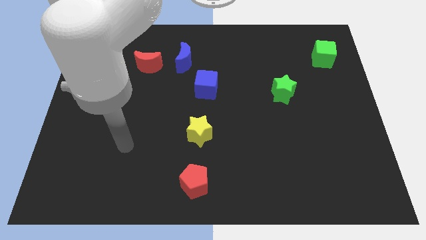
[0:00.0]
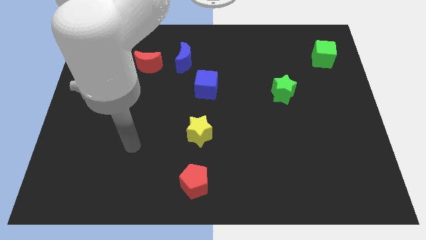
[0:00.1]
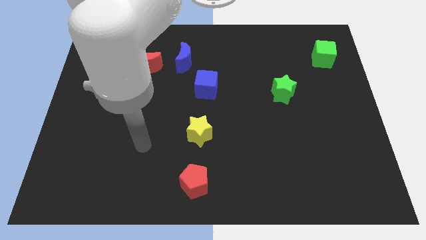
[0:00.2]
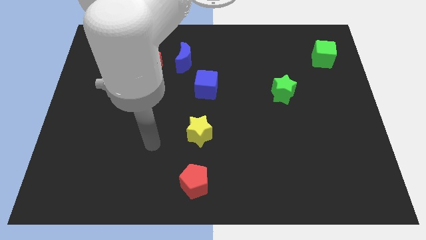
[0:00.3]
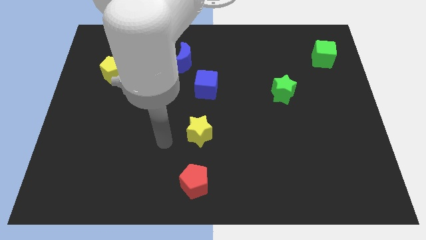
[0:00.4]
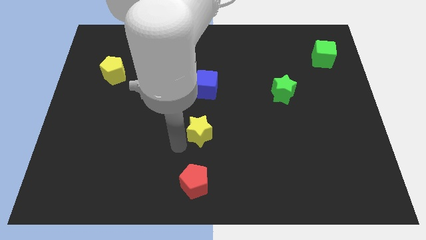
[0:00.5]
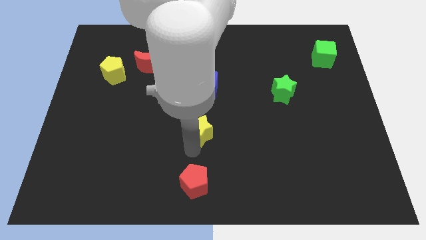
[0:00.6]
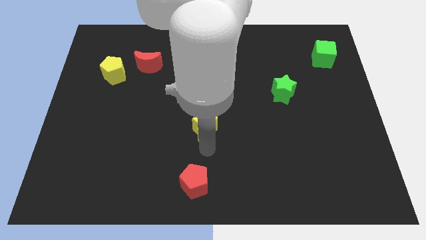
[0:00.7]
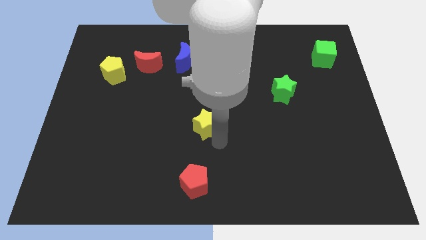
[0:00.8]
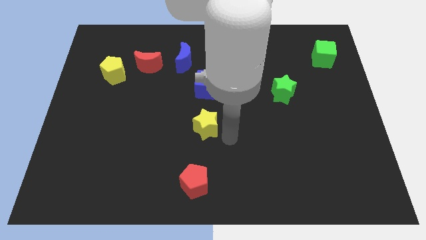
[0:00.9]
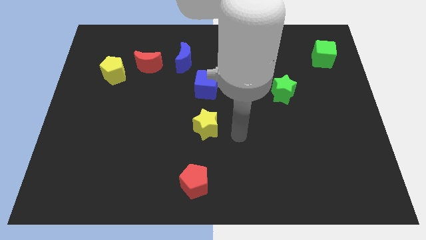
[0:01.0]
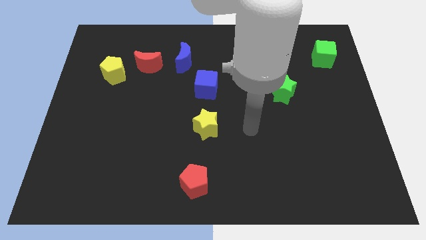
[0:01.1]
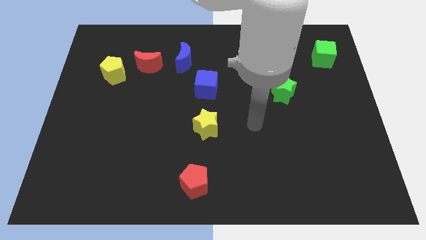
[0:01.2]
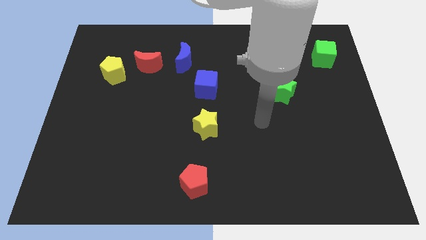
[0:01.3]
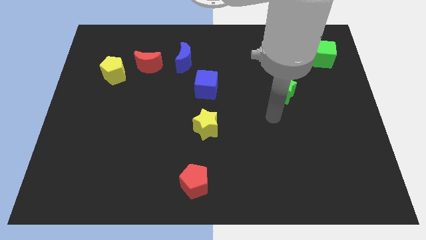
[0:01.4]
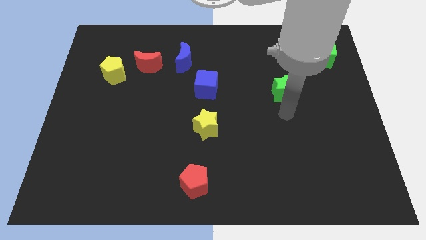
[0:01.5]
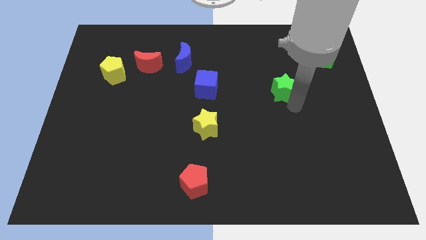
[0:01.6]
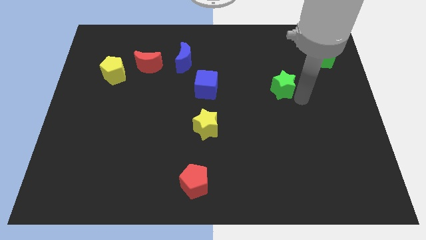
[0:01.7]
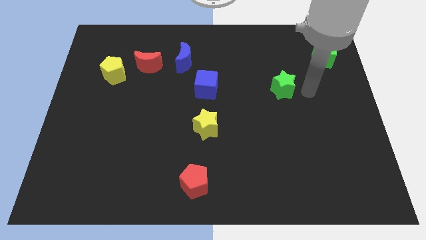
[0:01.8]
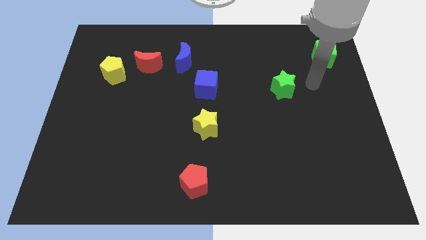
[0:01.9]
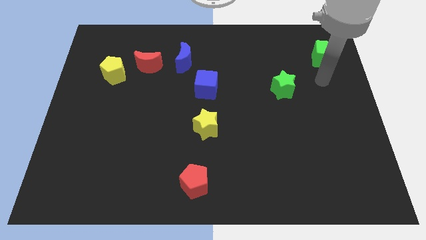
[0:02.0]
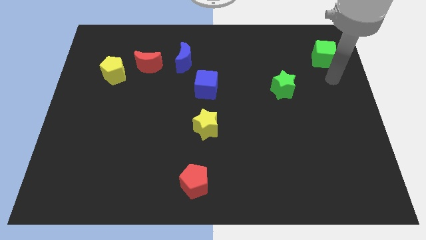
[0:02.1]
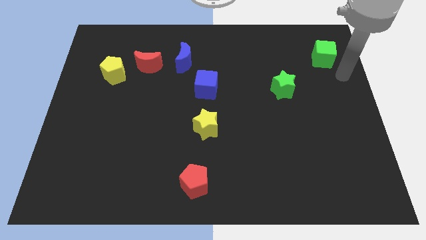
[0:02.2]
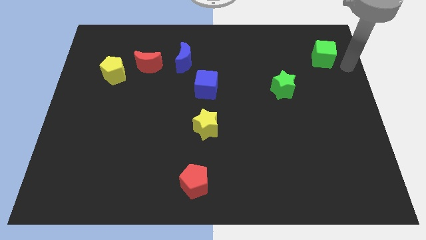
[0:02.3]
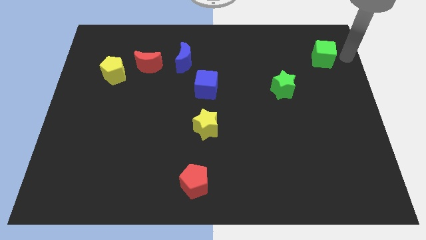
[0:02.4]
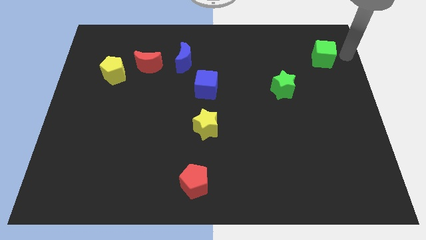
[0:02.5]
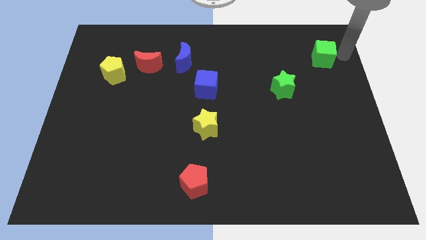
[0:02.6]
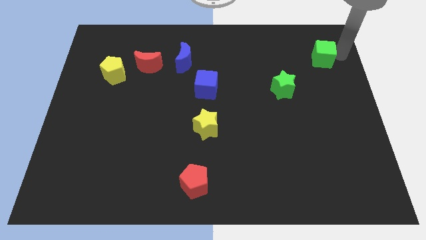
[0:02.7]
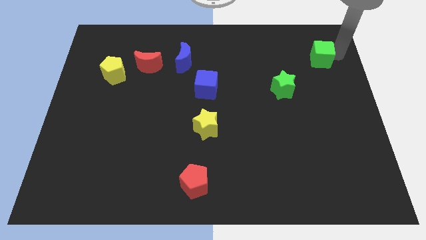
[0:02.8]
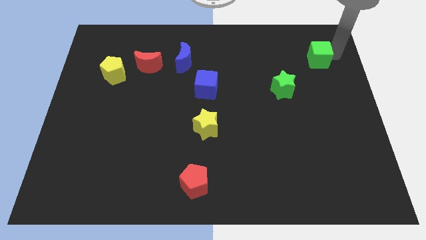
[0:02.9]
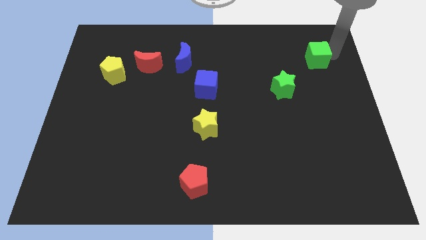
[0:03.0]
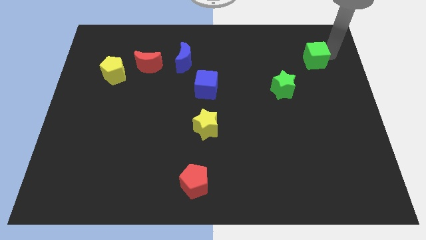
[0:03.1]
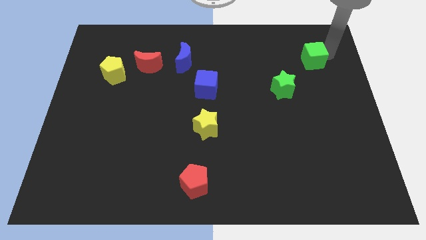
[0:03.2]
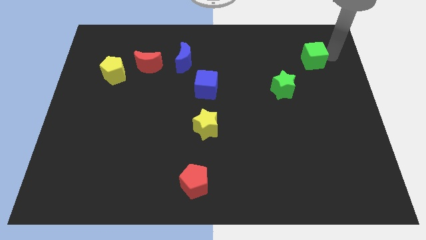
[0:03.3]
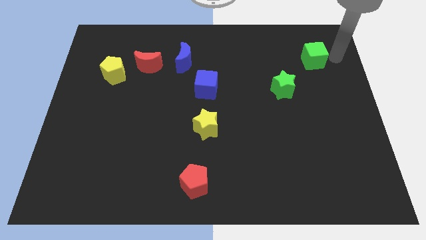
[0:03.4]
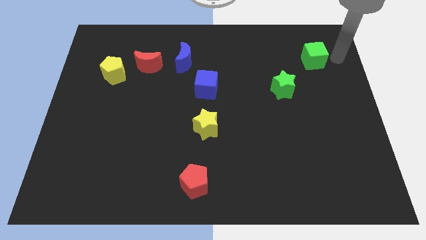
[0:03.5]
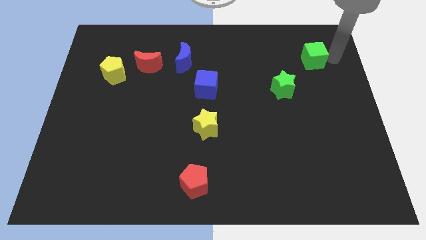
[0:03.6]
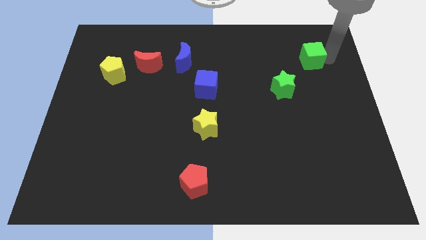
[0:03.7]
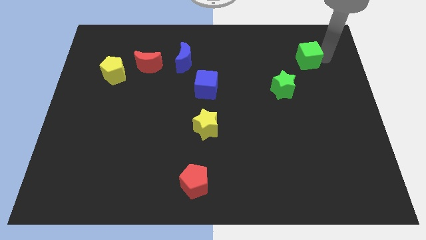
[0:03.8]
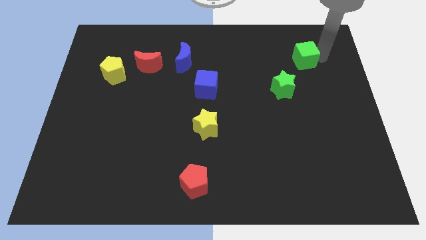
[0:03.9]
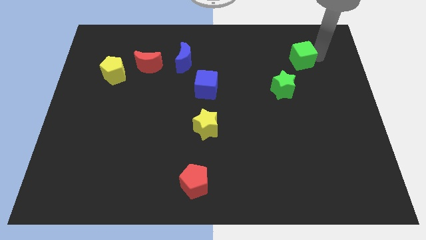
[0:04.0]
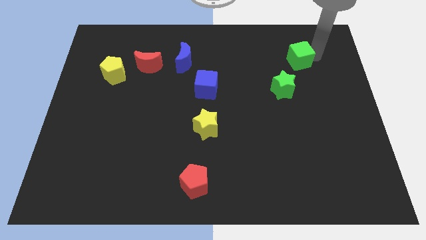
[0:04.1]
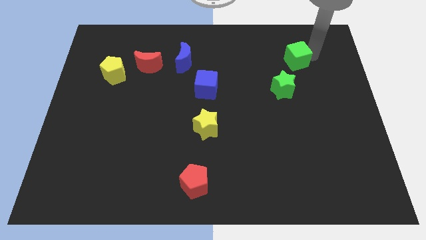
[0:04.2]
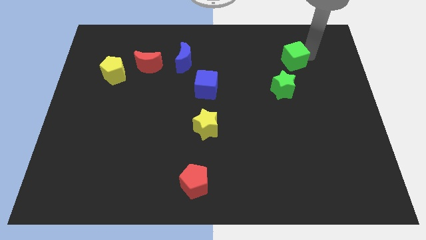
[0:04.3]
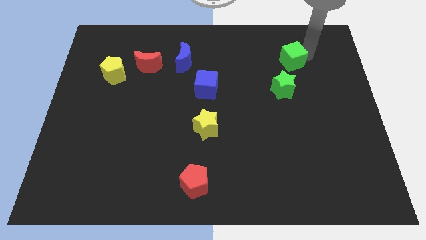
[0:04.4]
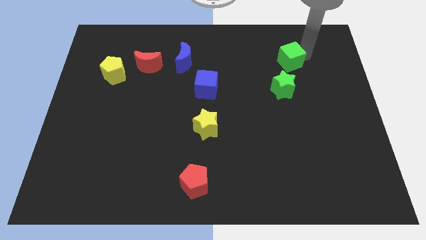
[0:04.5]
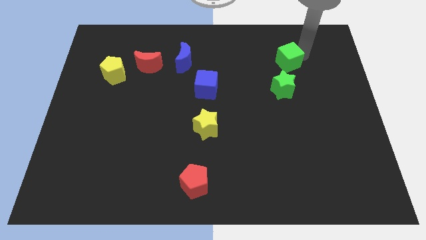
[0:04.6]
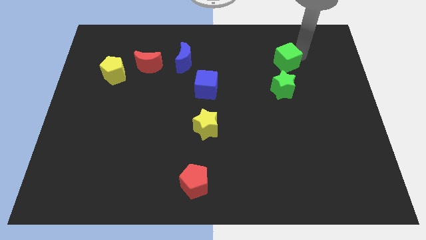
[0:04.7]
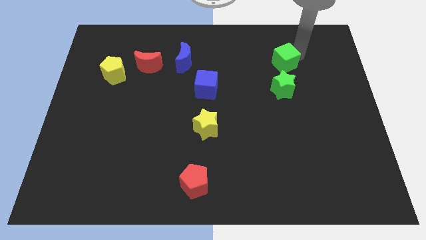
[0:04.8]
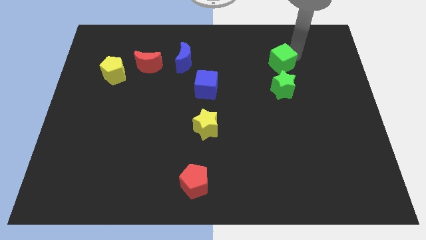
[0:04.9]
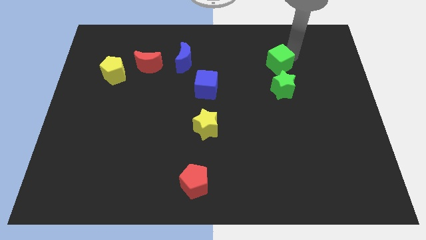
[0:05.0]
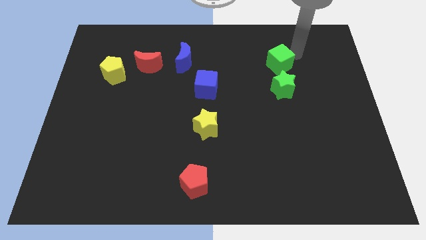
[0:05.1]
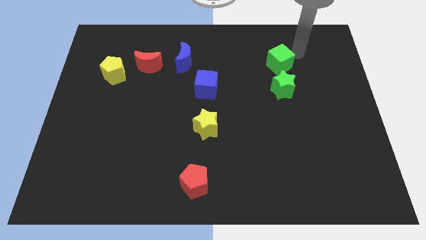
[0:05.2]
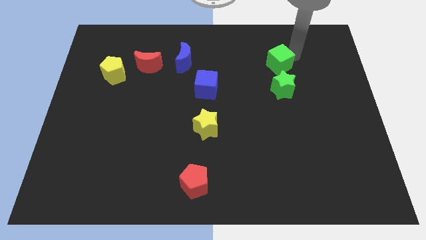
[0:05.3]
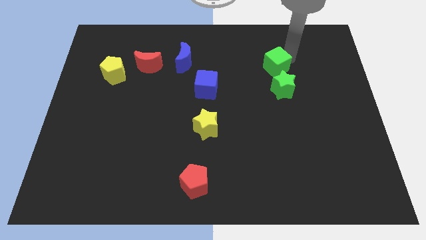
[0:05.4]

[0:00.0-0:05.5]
put the green cube diagonally up and to the left of the green star

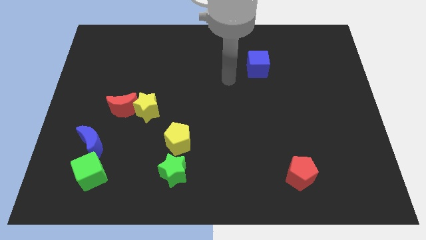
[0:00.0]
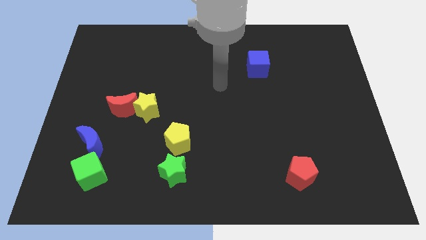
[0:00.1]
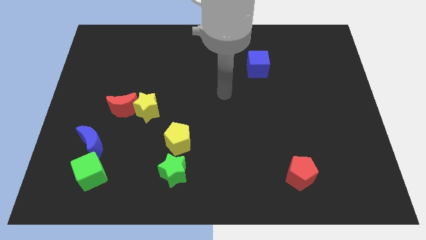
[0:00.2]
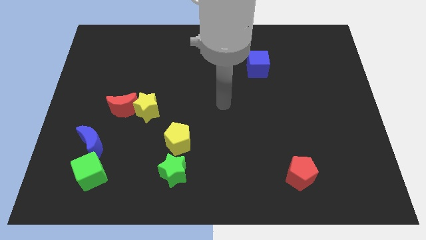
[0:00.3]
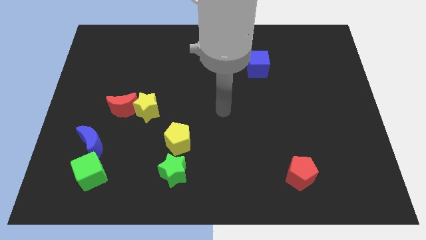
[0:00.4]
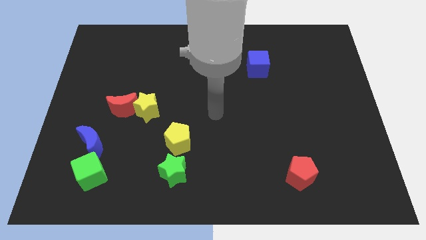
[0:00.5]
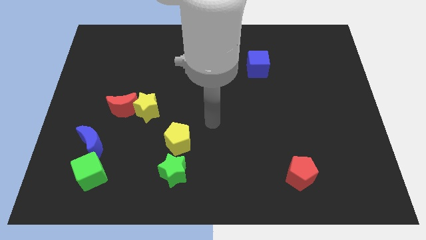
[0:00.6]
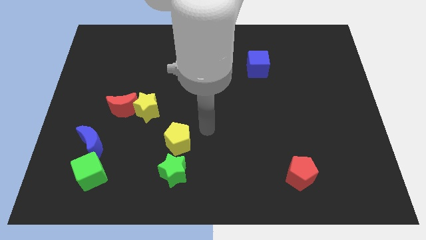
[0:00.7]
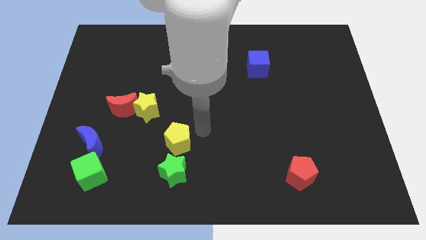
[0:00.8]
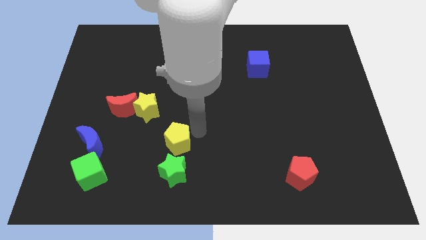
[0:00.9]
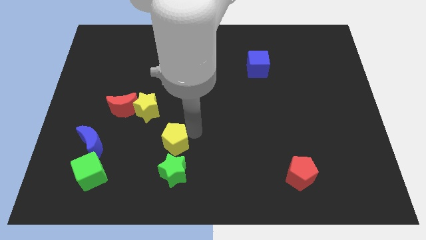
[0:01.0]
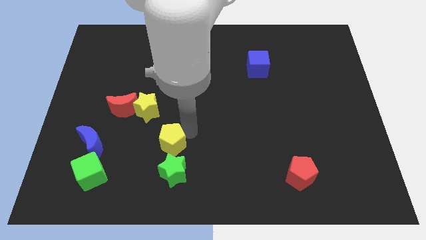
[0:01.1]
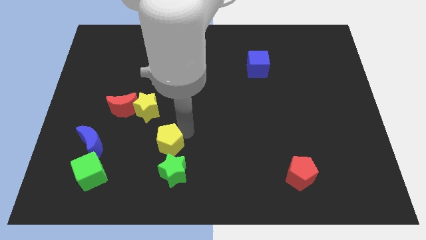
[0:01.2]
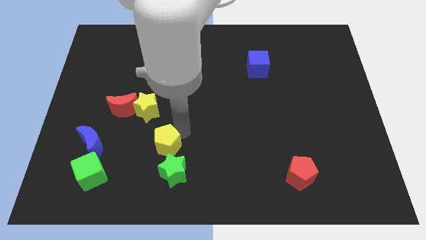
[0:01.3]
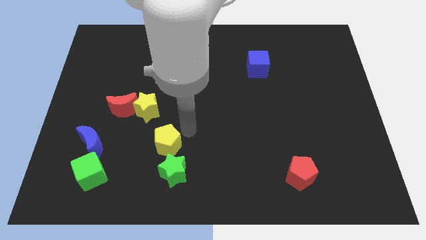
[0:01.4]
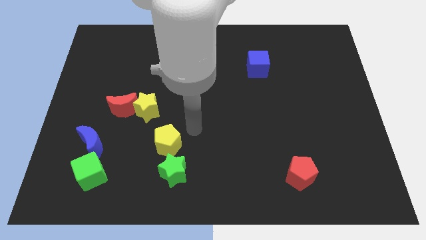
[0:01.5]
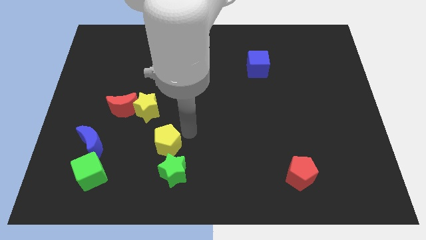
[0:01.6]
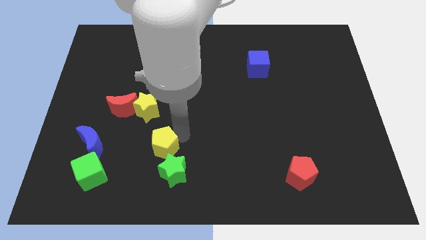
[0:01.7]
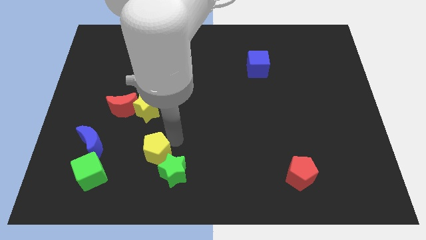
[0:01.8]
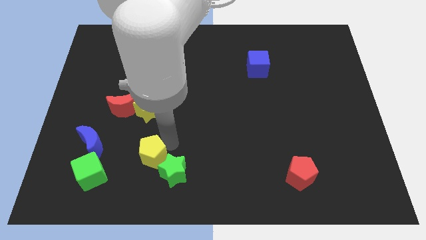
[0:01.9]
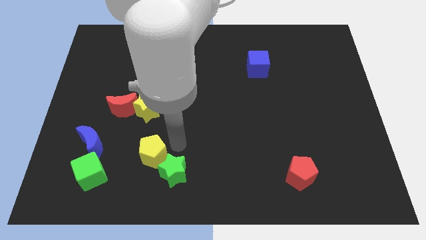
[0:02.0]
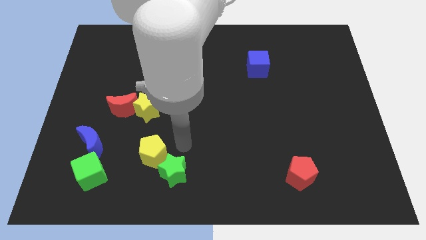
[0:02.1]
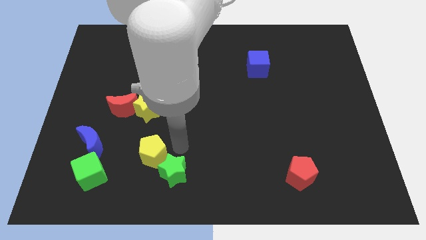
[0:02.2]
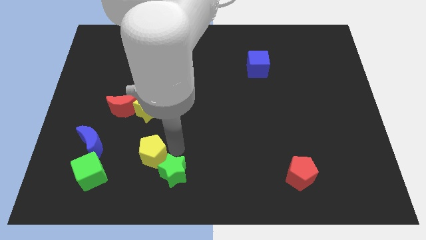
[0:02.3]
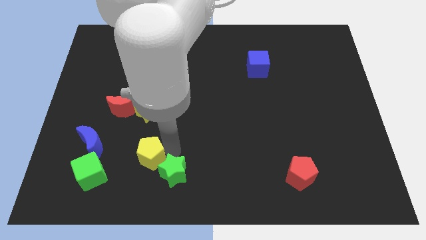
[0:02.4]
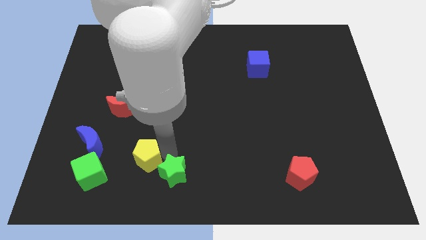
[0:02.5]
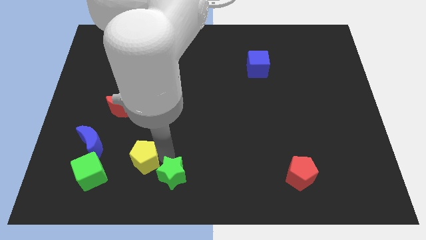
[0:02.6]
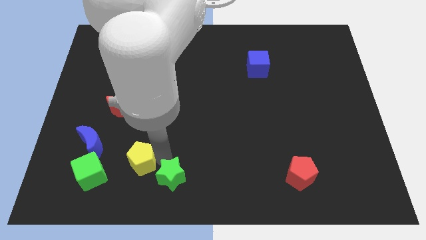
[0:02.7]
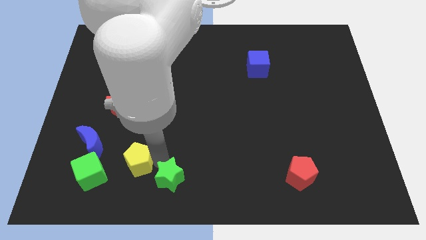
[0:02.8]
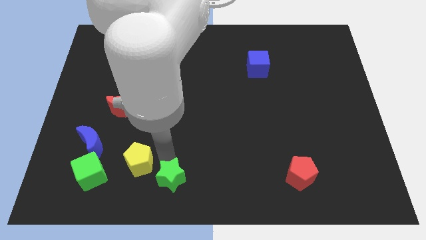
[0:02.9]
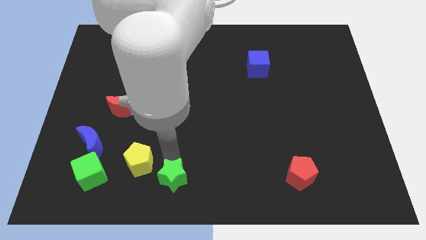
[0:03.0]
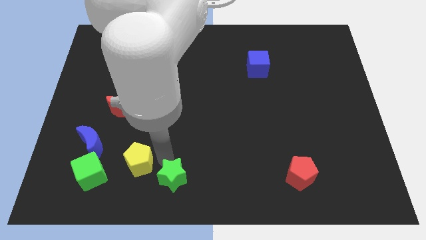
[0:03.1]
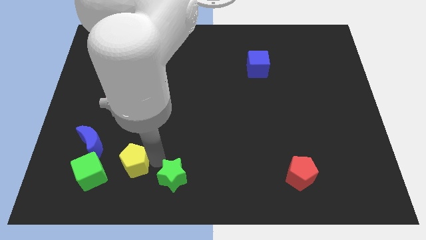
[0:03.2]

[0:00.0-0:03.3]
slide the yellow pentagon to the bottom right side of the blue moon
